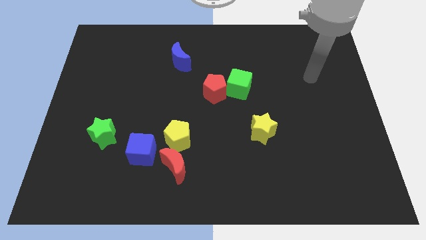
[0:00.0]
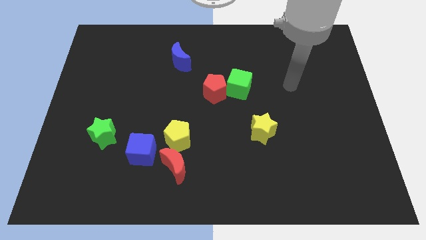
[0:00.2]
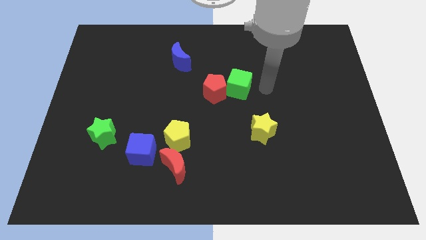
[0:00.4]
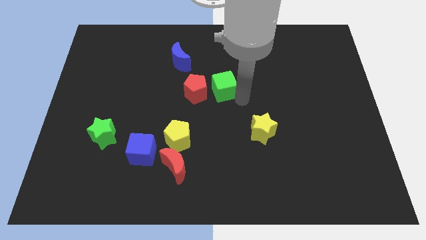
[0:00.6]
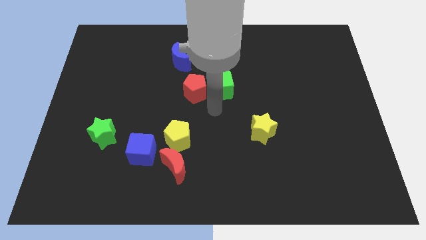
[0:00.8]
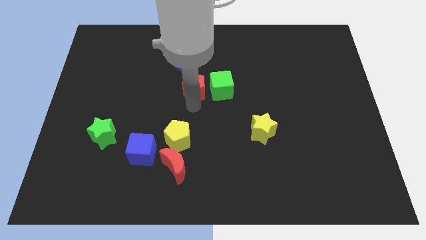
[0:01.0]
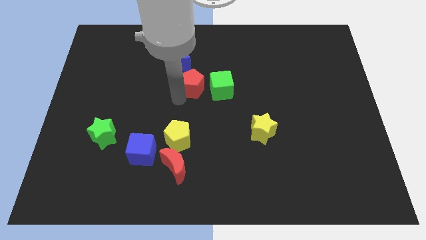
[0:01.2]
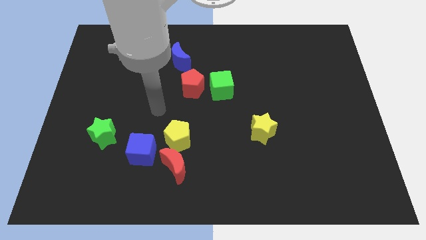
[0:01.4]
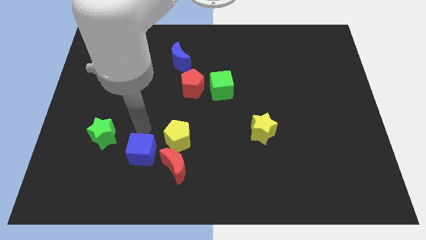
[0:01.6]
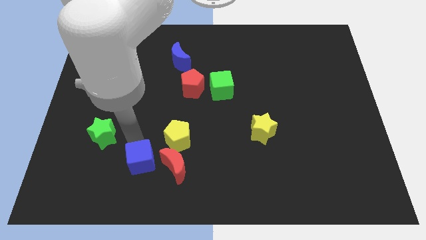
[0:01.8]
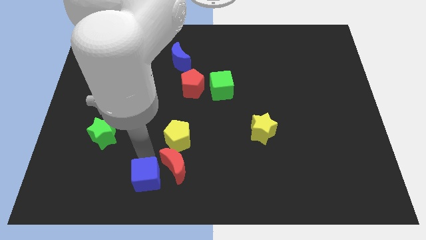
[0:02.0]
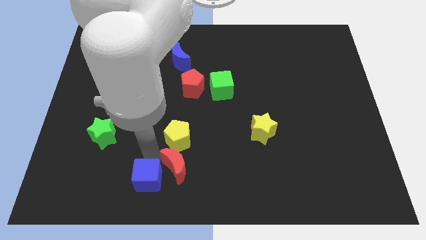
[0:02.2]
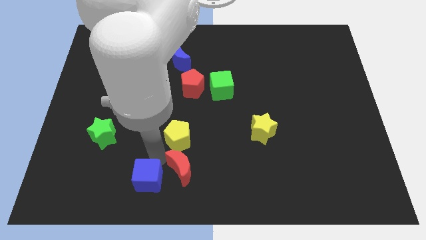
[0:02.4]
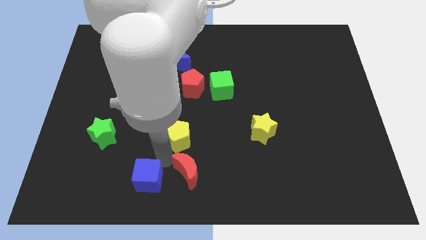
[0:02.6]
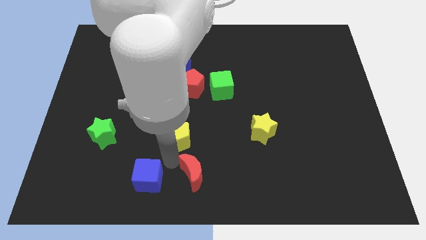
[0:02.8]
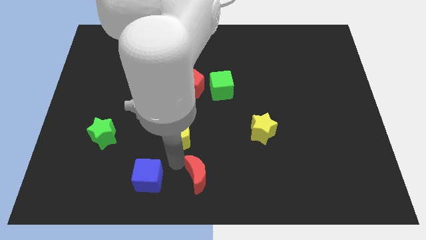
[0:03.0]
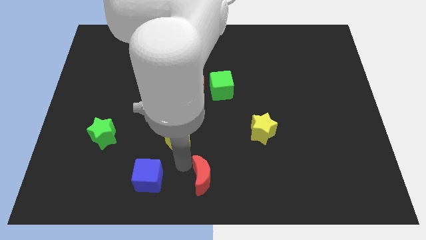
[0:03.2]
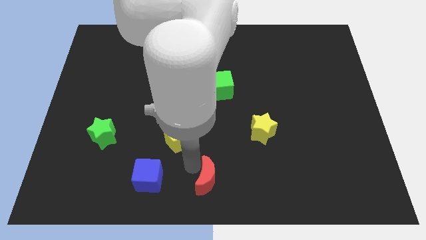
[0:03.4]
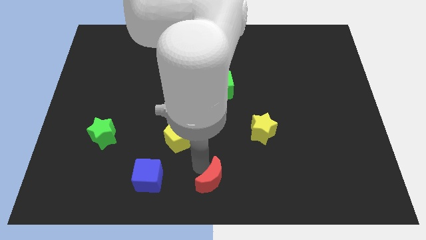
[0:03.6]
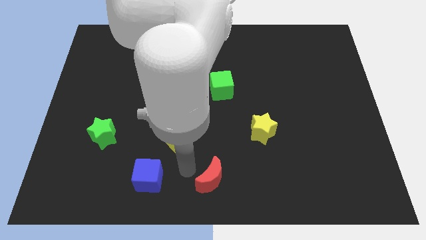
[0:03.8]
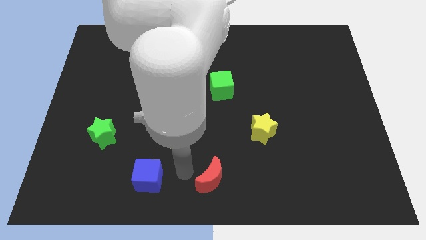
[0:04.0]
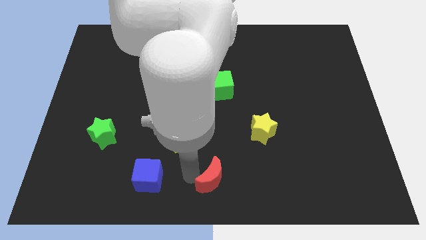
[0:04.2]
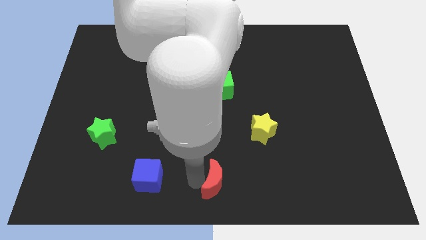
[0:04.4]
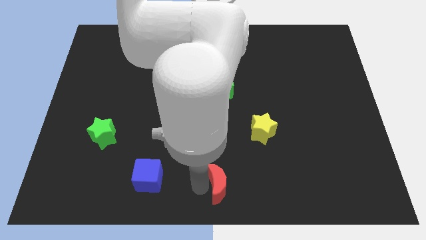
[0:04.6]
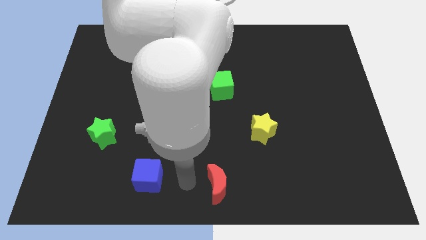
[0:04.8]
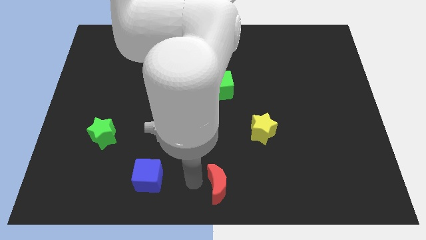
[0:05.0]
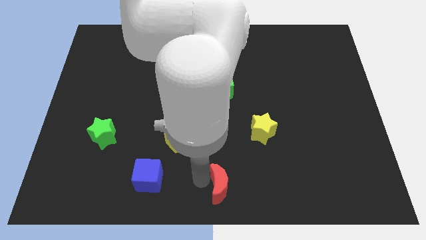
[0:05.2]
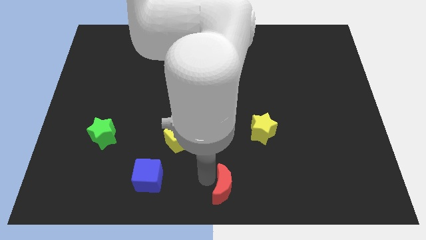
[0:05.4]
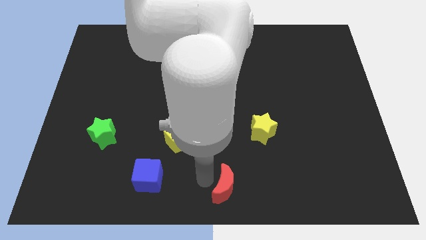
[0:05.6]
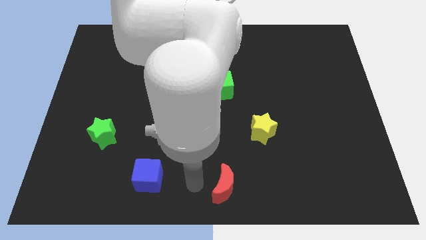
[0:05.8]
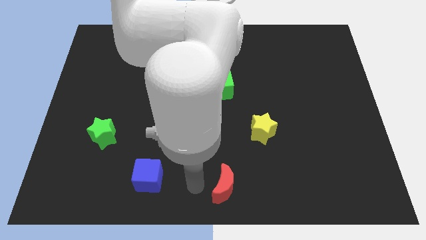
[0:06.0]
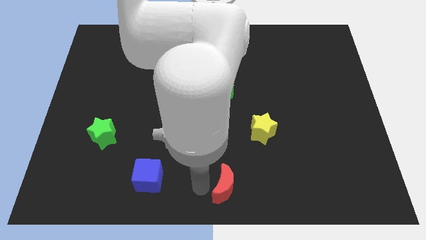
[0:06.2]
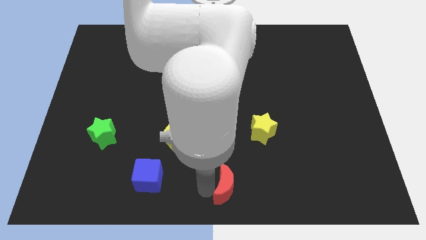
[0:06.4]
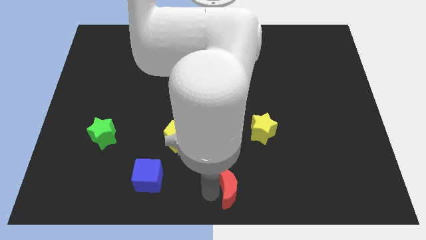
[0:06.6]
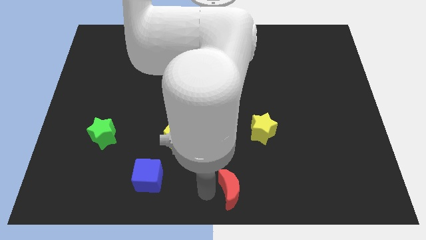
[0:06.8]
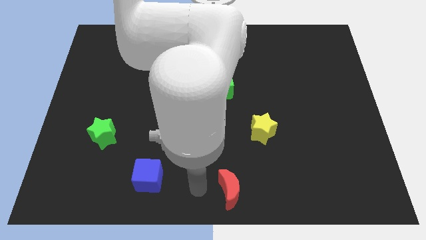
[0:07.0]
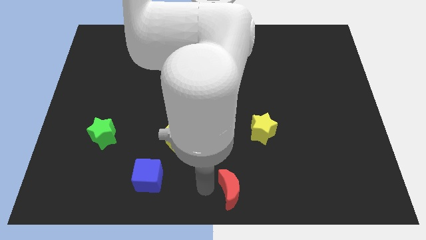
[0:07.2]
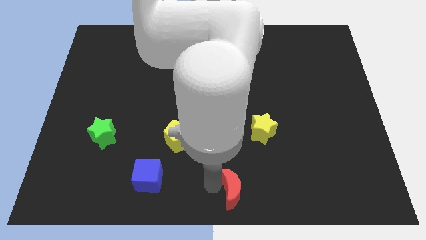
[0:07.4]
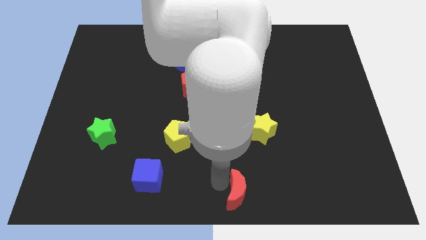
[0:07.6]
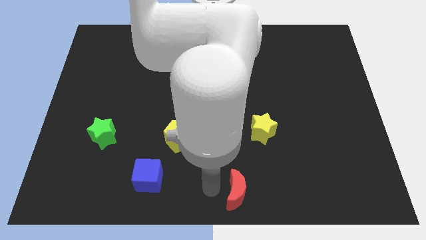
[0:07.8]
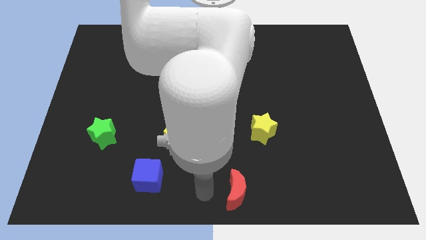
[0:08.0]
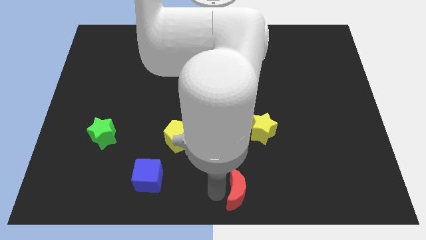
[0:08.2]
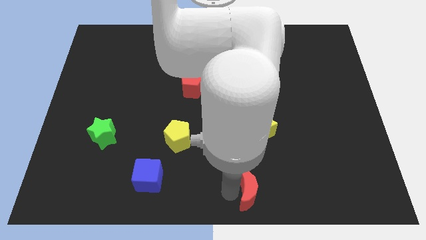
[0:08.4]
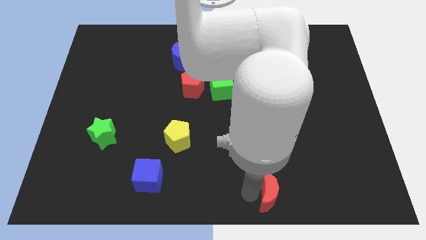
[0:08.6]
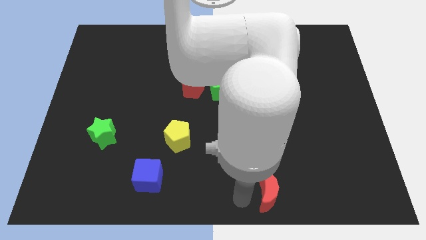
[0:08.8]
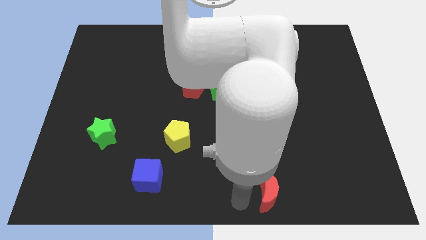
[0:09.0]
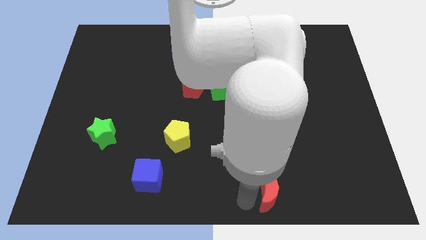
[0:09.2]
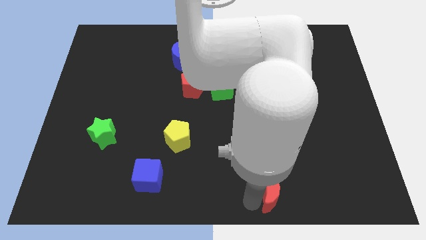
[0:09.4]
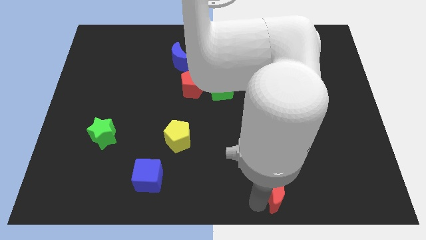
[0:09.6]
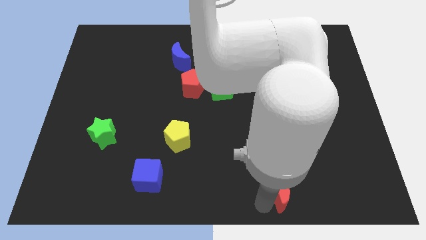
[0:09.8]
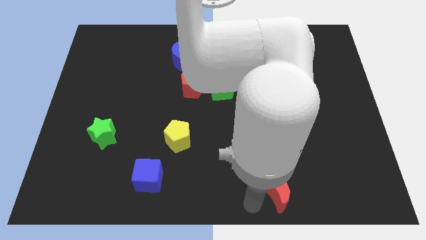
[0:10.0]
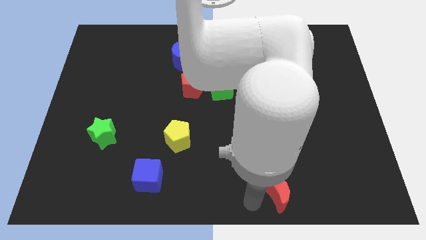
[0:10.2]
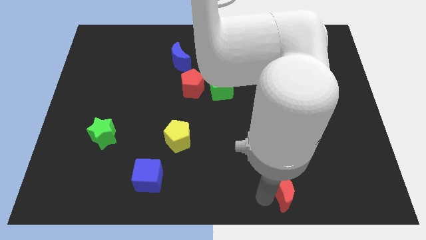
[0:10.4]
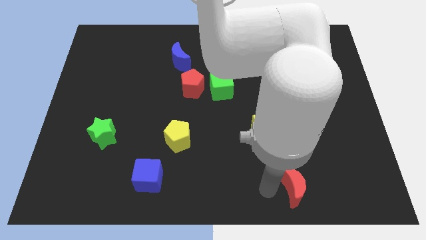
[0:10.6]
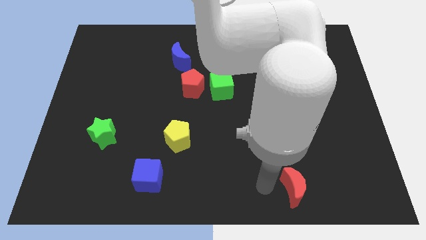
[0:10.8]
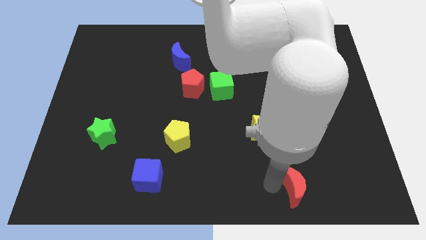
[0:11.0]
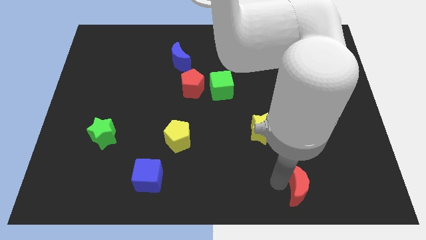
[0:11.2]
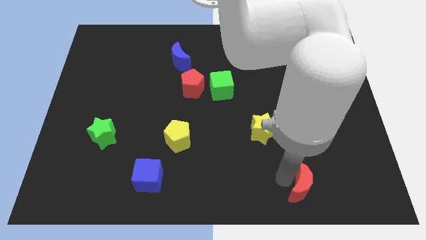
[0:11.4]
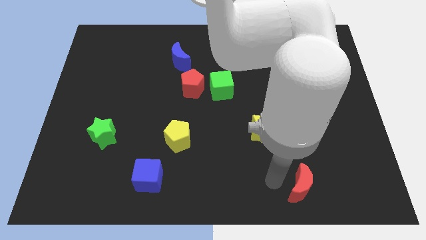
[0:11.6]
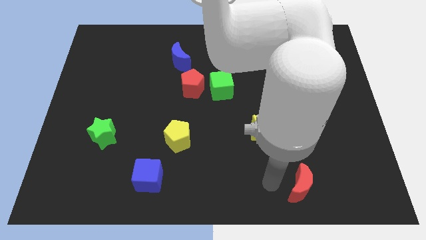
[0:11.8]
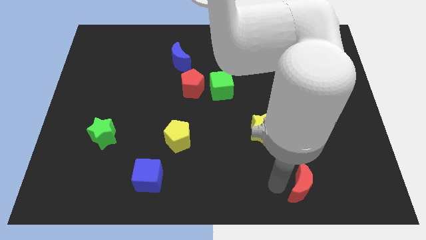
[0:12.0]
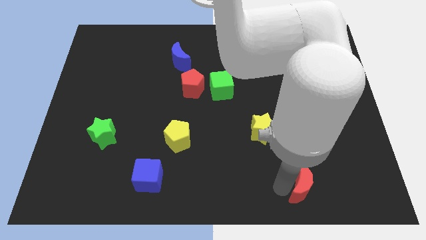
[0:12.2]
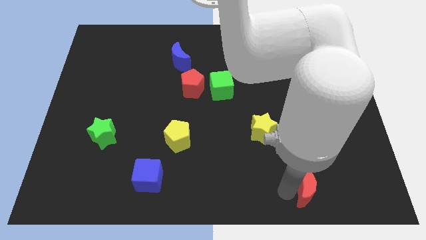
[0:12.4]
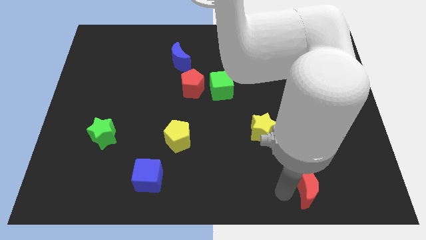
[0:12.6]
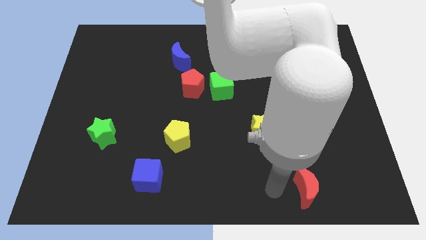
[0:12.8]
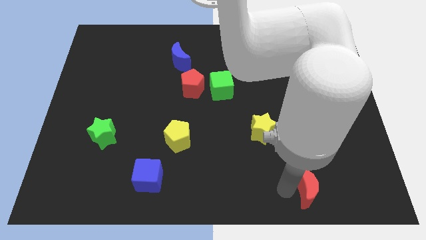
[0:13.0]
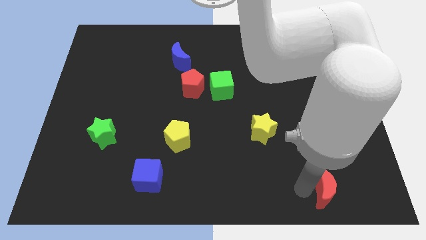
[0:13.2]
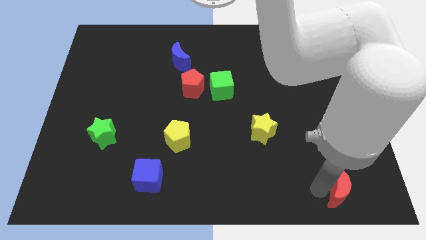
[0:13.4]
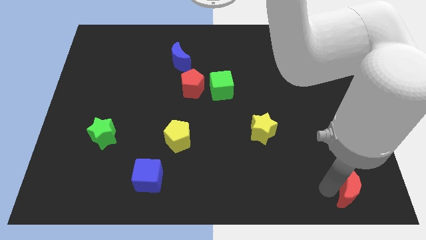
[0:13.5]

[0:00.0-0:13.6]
push the red moon to the bottom right of the board
